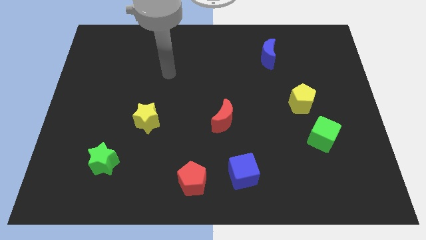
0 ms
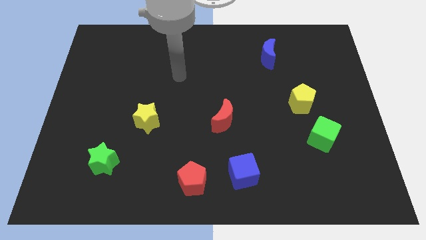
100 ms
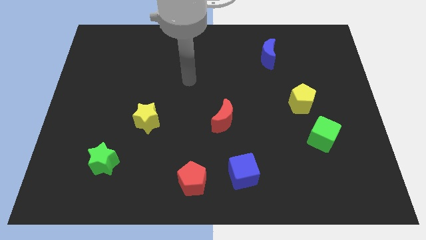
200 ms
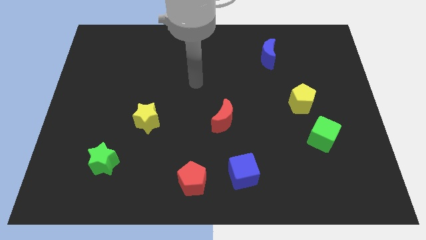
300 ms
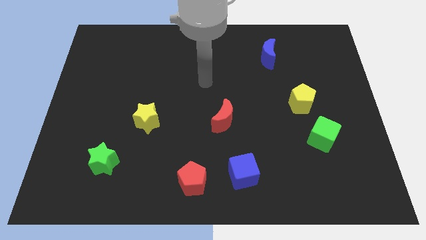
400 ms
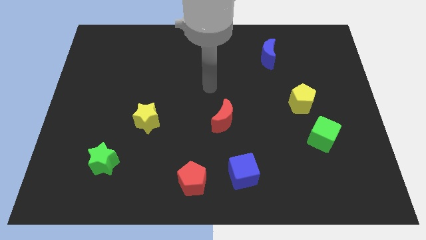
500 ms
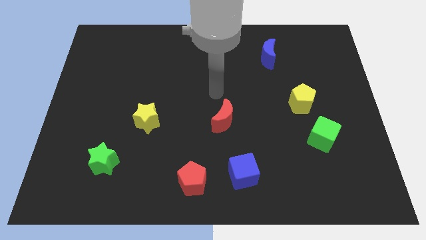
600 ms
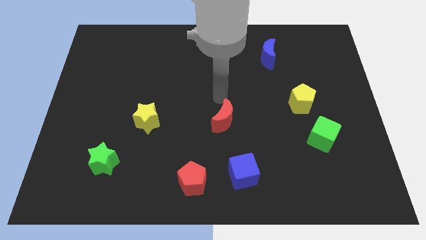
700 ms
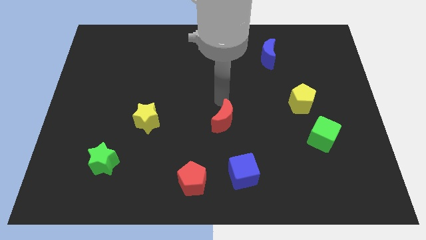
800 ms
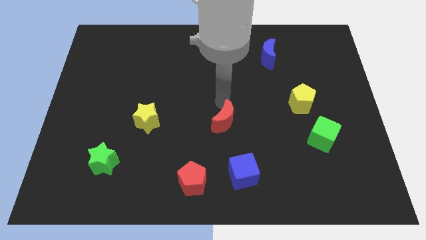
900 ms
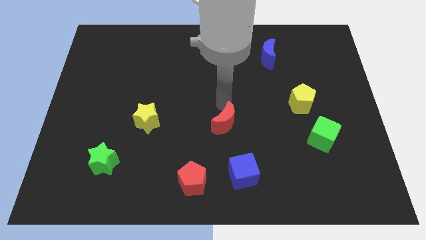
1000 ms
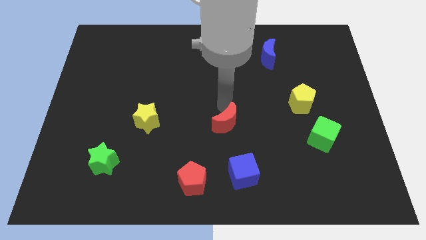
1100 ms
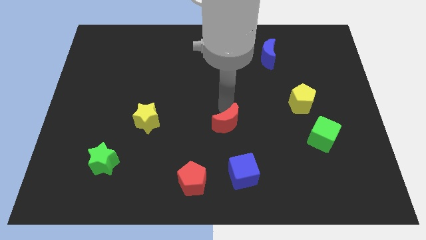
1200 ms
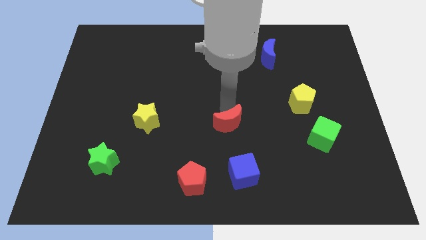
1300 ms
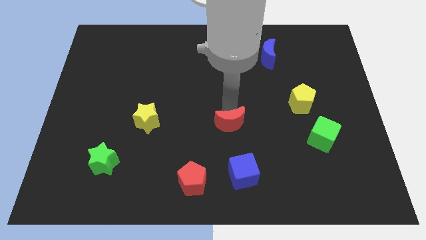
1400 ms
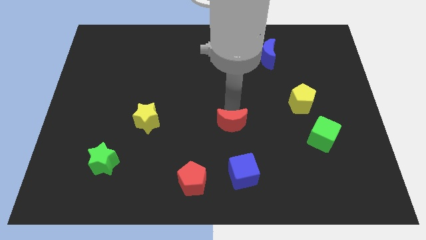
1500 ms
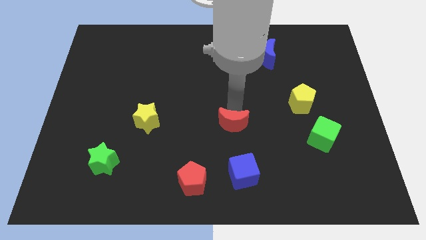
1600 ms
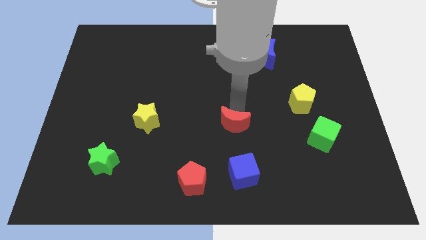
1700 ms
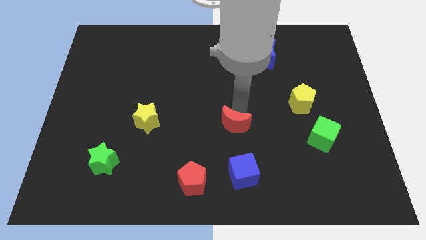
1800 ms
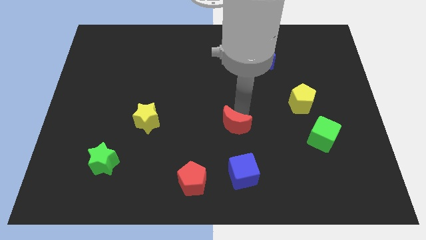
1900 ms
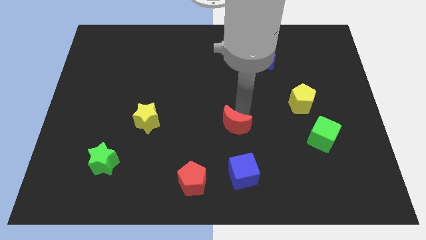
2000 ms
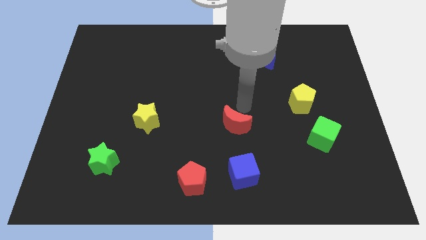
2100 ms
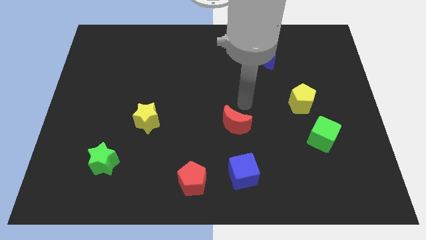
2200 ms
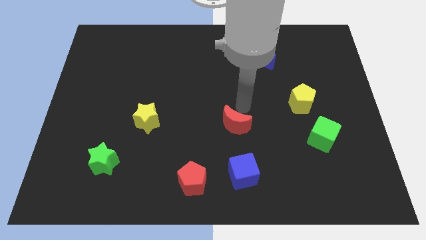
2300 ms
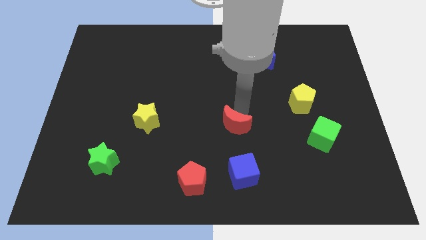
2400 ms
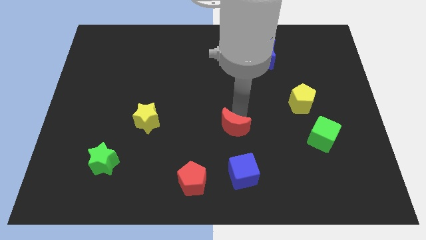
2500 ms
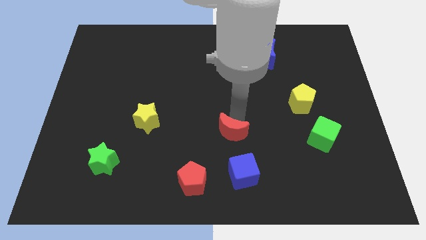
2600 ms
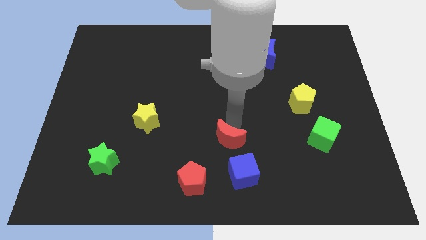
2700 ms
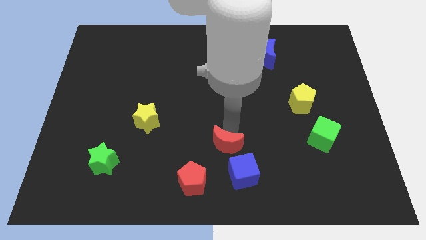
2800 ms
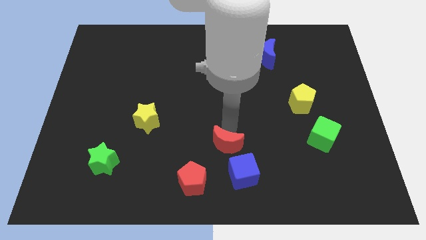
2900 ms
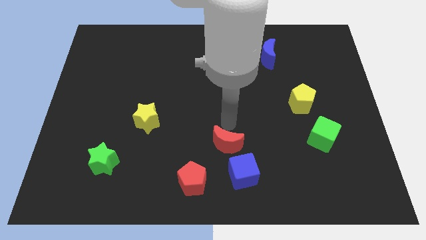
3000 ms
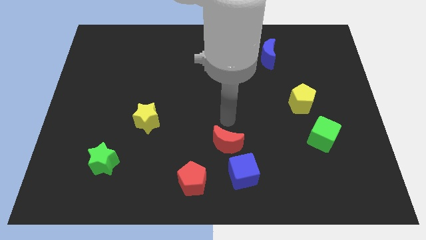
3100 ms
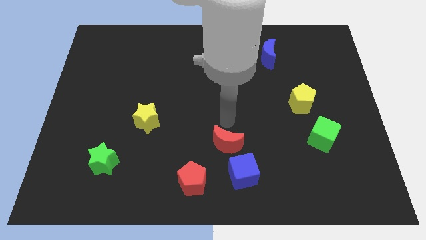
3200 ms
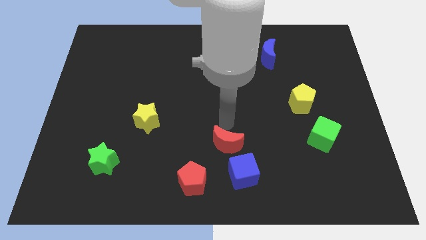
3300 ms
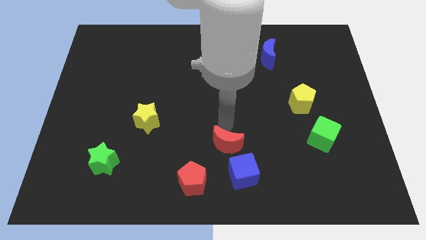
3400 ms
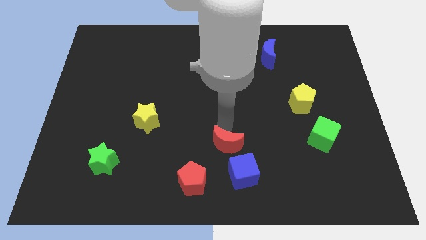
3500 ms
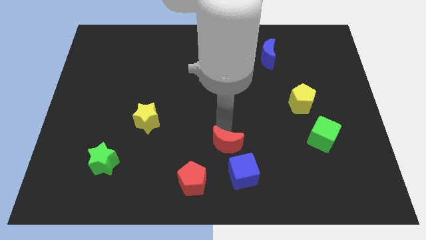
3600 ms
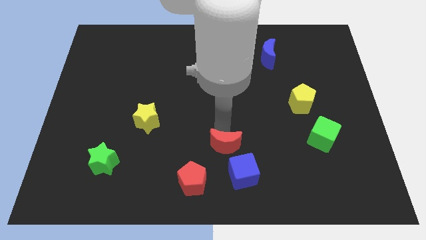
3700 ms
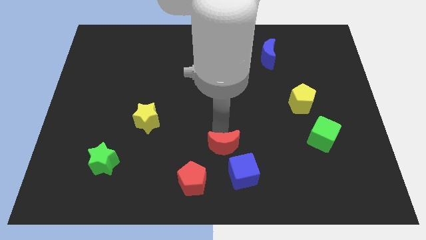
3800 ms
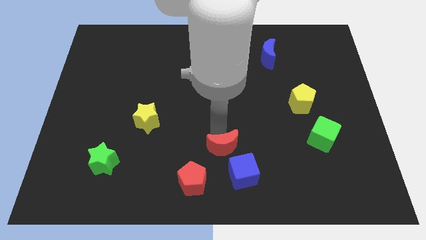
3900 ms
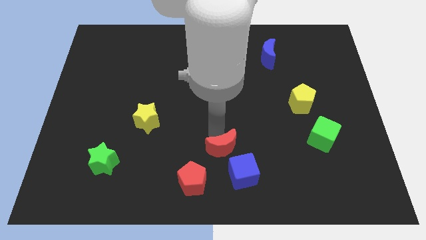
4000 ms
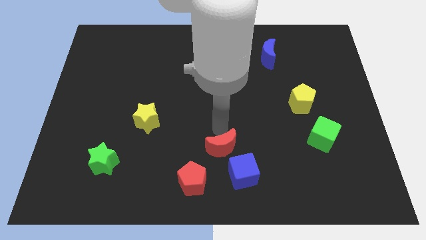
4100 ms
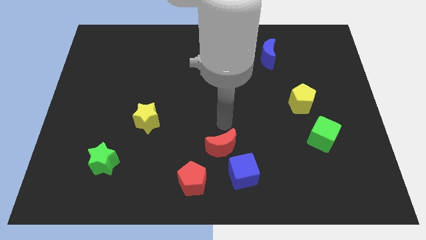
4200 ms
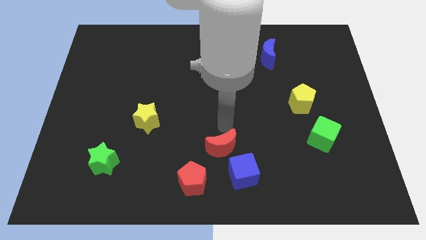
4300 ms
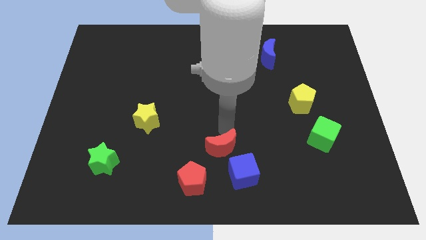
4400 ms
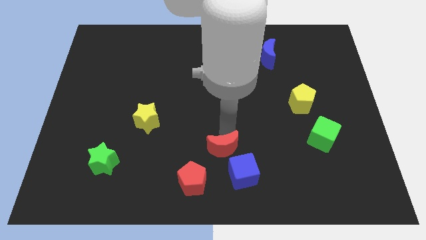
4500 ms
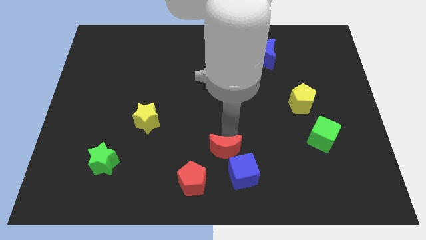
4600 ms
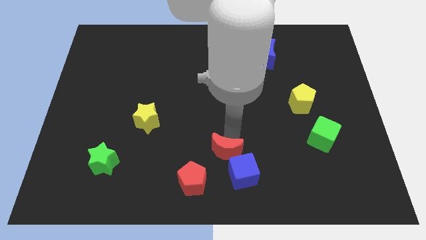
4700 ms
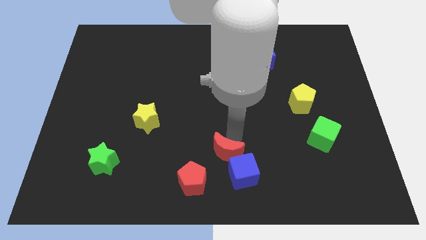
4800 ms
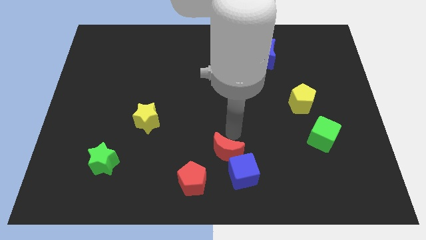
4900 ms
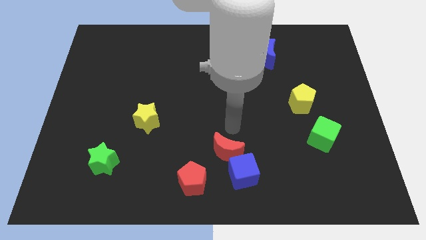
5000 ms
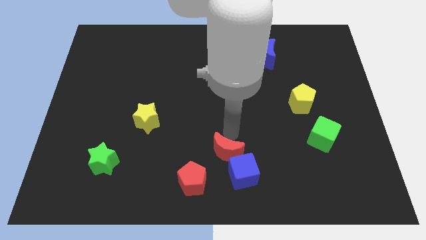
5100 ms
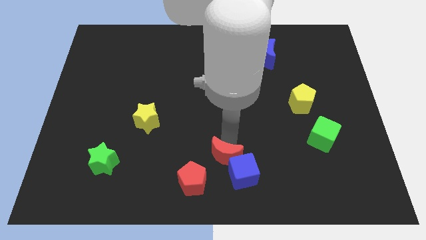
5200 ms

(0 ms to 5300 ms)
slide the red moon to the bottom side

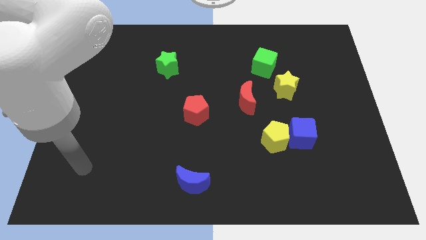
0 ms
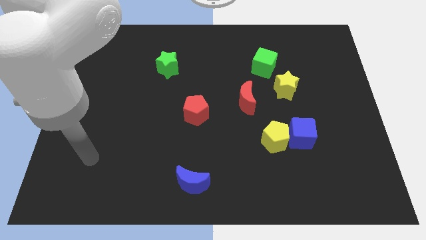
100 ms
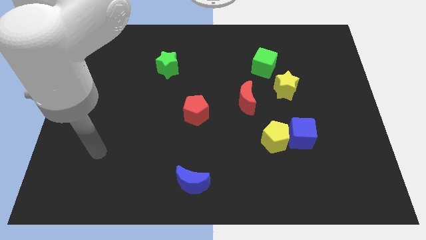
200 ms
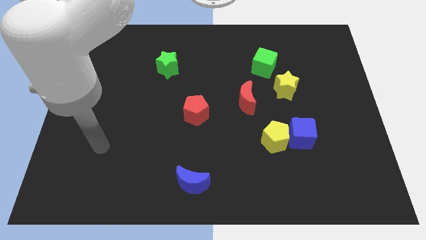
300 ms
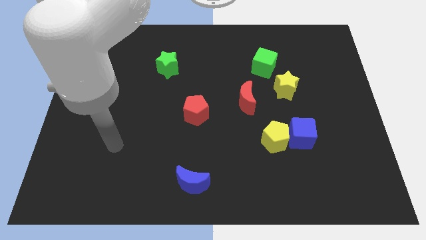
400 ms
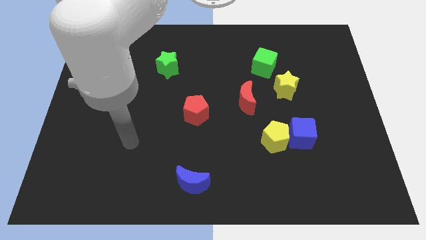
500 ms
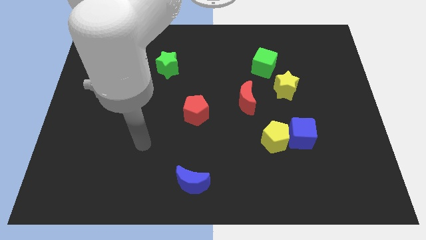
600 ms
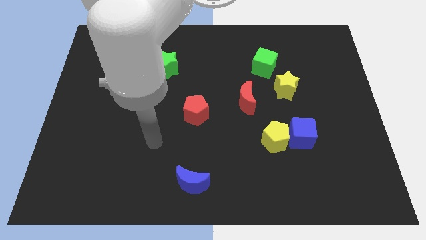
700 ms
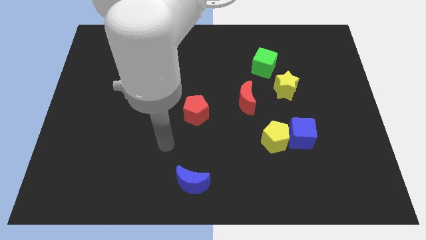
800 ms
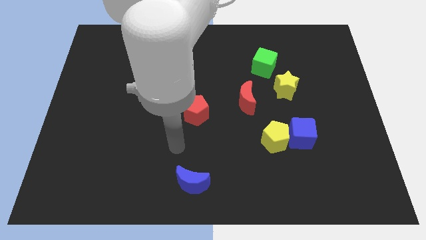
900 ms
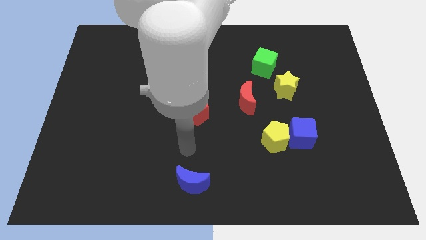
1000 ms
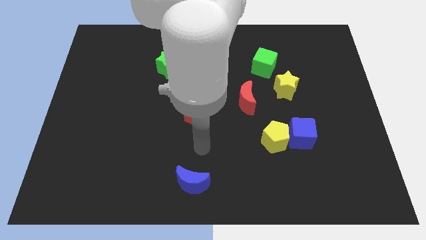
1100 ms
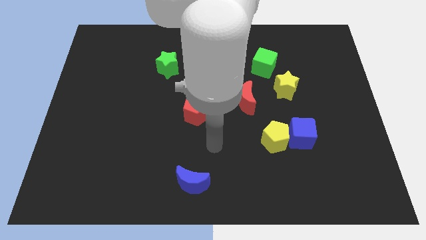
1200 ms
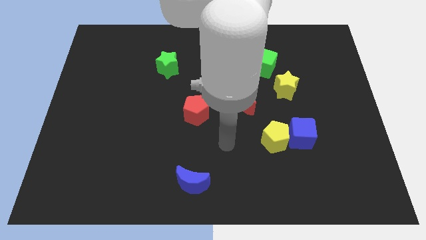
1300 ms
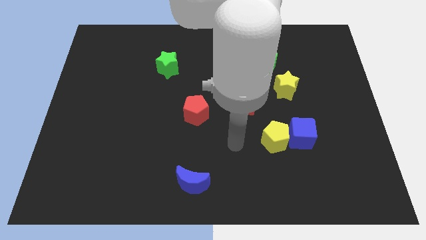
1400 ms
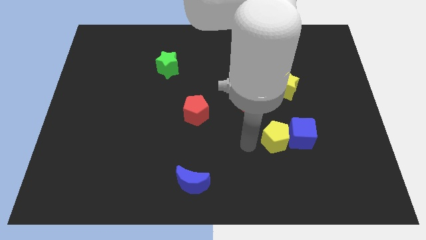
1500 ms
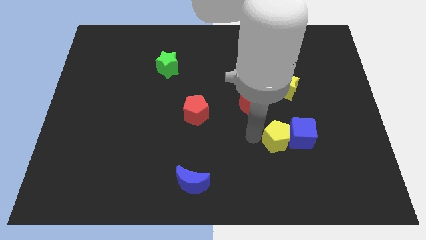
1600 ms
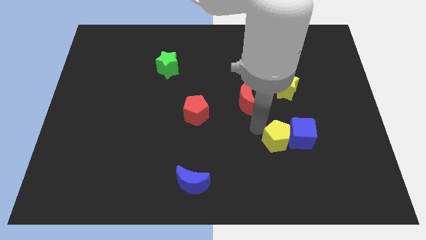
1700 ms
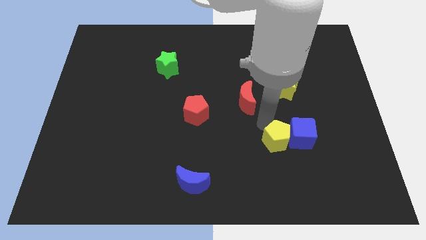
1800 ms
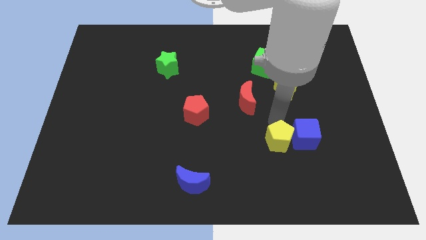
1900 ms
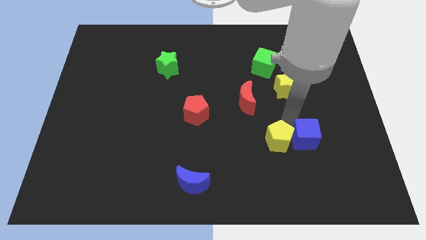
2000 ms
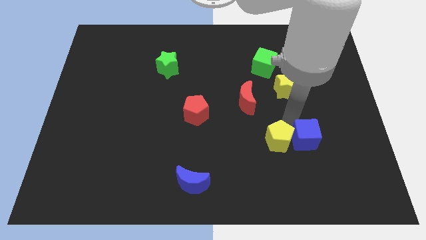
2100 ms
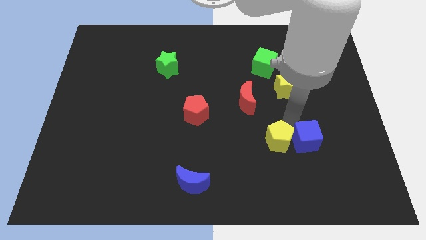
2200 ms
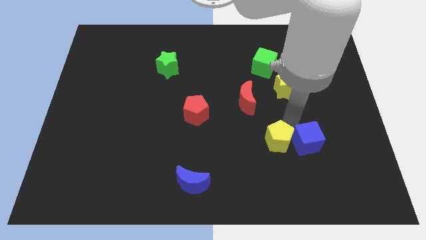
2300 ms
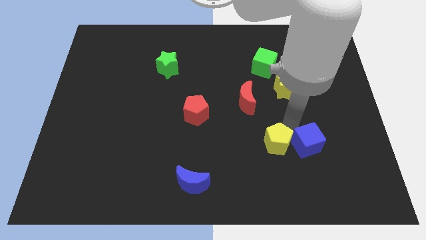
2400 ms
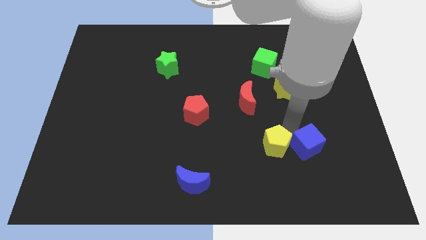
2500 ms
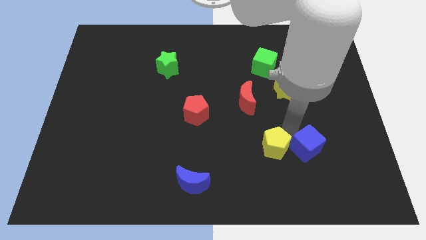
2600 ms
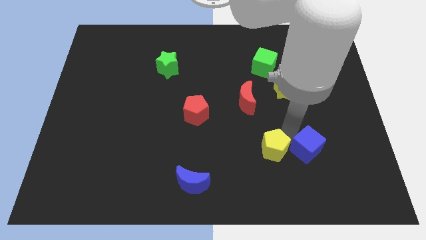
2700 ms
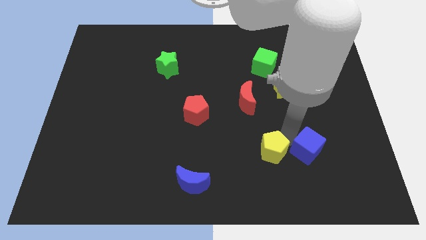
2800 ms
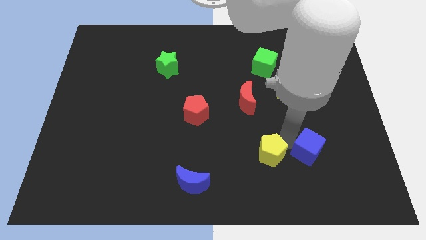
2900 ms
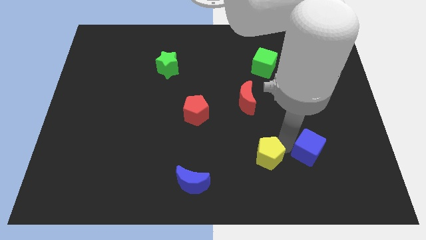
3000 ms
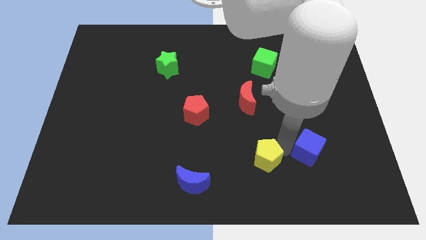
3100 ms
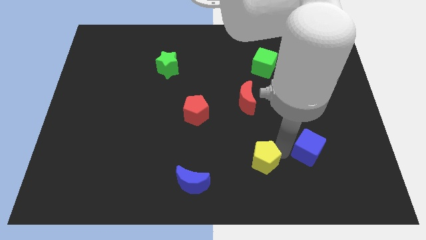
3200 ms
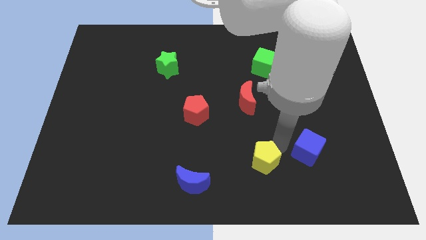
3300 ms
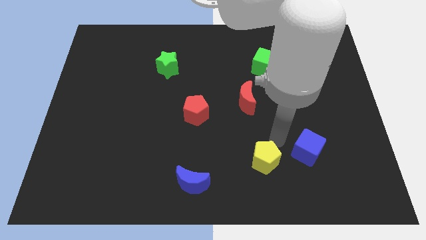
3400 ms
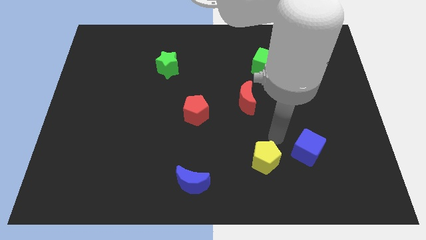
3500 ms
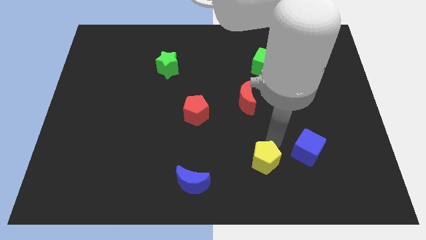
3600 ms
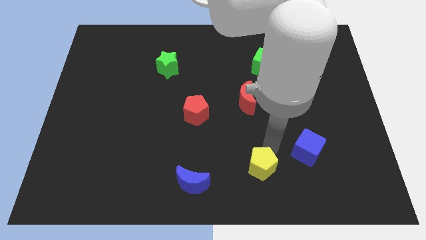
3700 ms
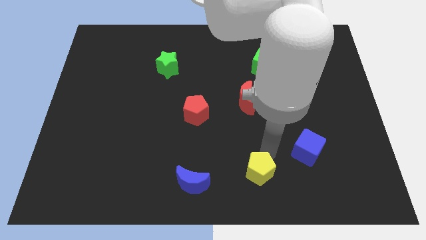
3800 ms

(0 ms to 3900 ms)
push the yellow pentagon to the bottom
